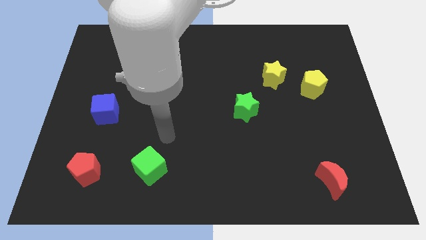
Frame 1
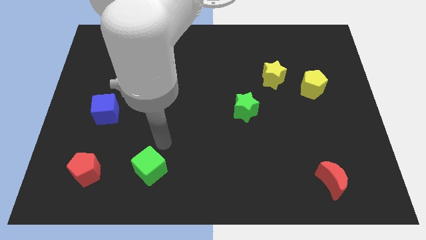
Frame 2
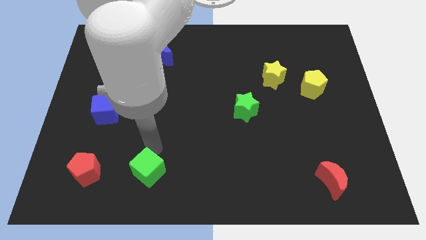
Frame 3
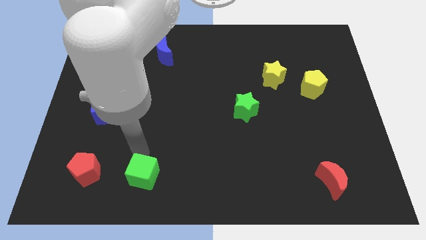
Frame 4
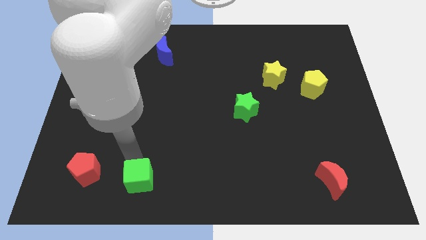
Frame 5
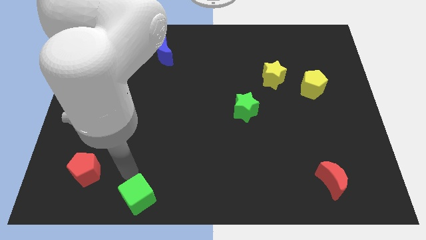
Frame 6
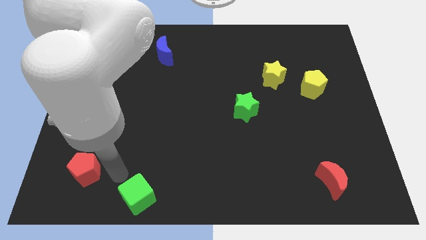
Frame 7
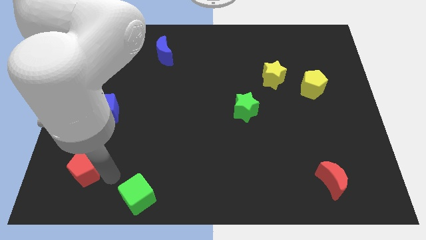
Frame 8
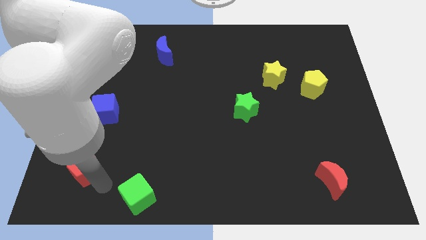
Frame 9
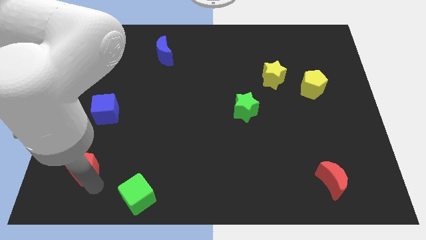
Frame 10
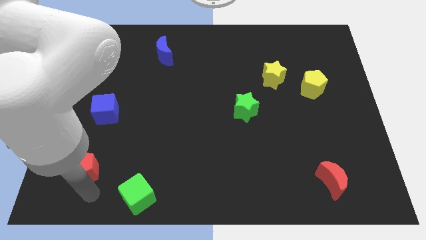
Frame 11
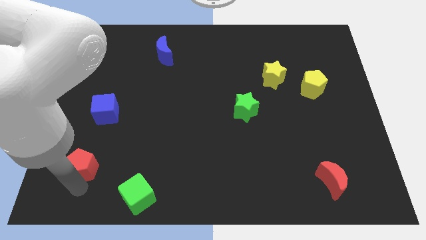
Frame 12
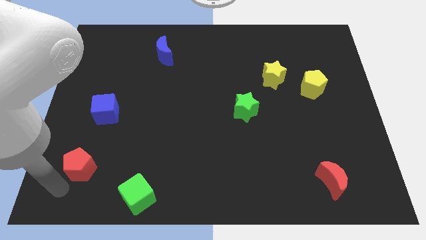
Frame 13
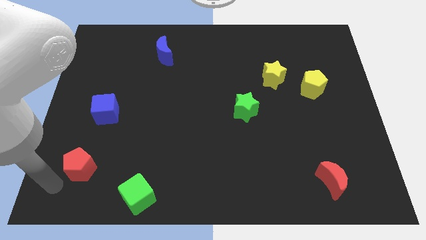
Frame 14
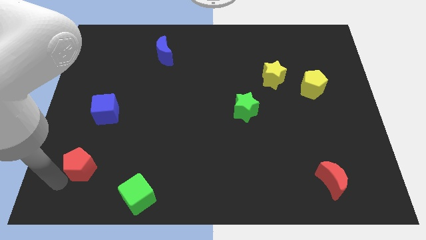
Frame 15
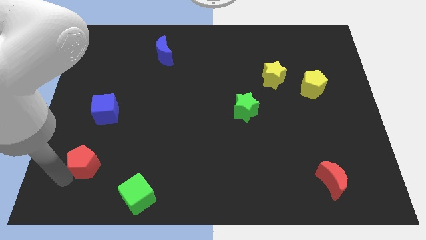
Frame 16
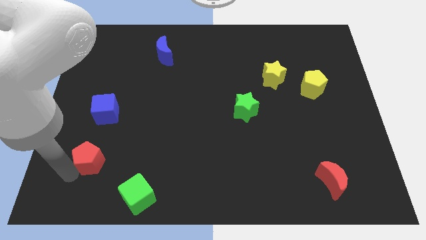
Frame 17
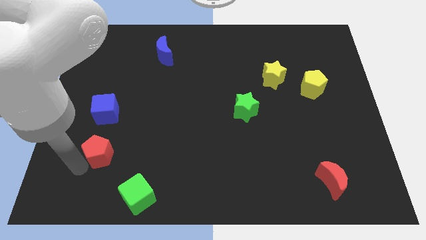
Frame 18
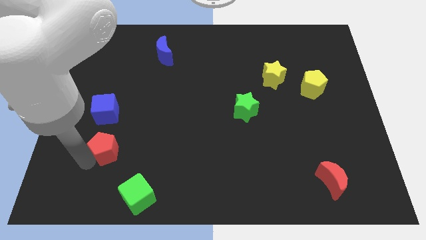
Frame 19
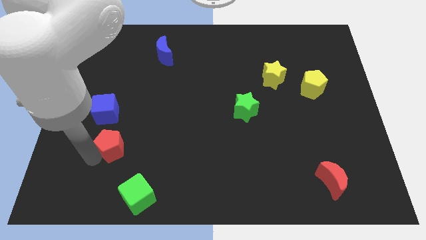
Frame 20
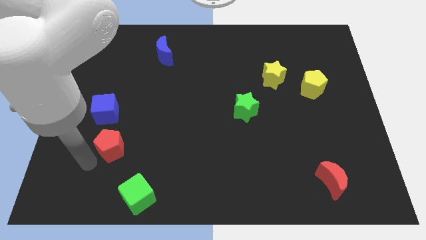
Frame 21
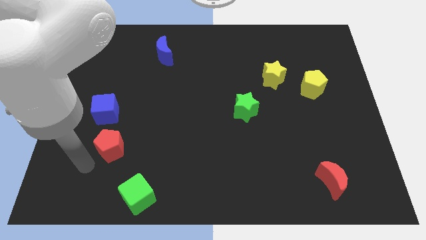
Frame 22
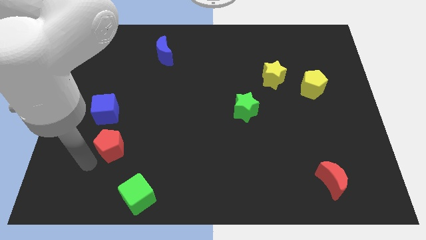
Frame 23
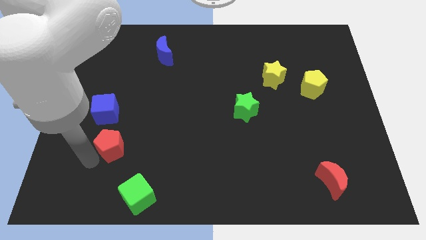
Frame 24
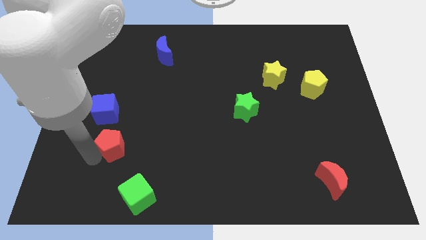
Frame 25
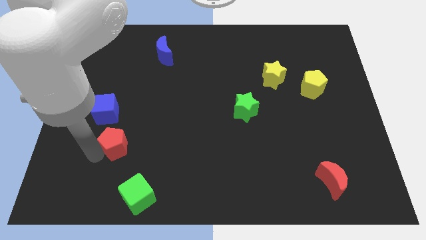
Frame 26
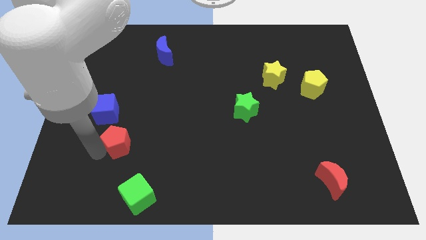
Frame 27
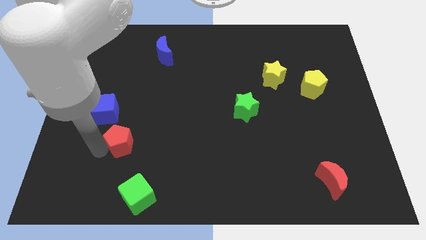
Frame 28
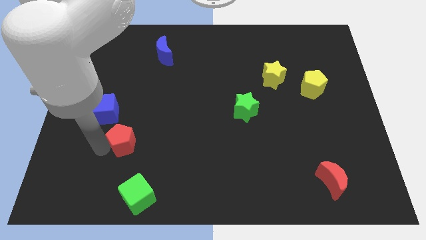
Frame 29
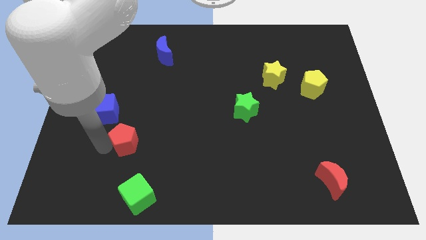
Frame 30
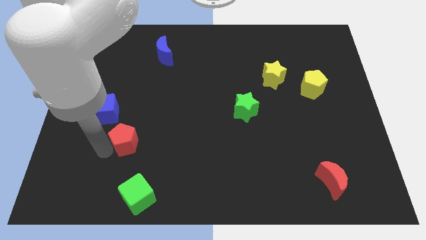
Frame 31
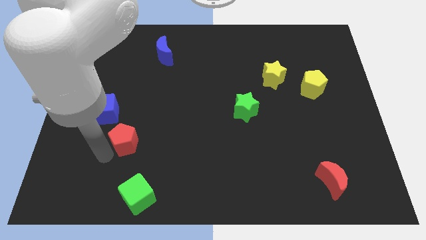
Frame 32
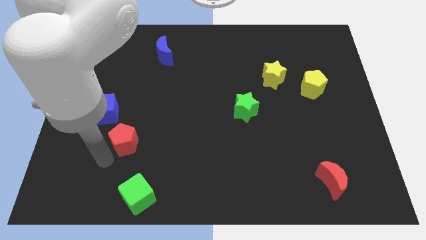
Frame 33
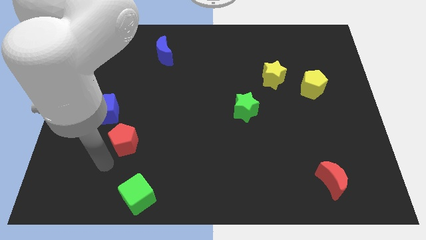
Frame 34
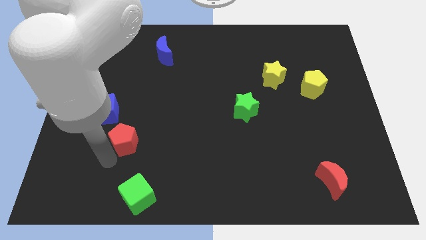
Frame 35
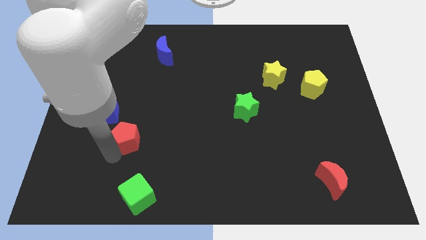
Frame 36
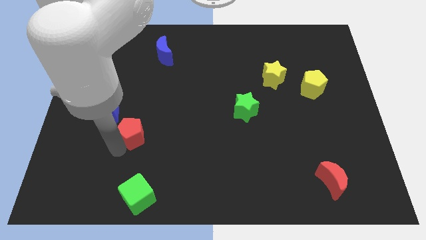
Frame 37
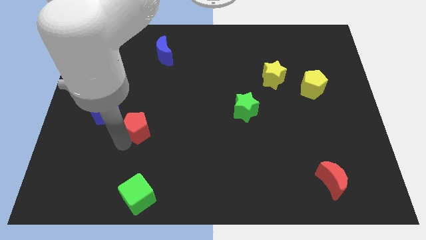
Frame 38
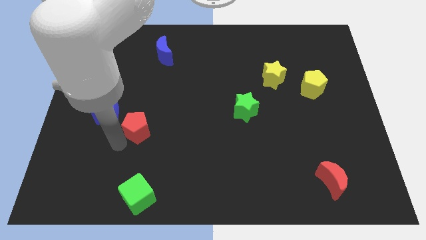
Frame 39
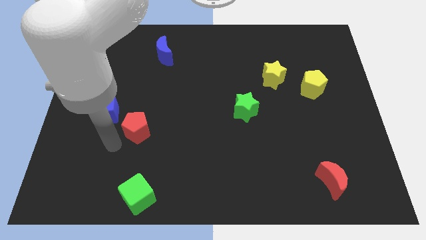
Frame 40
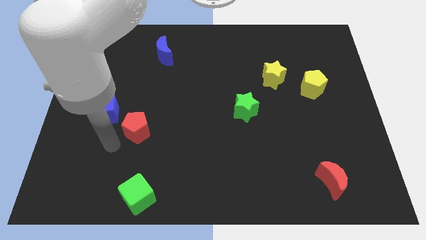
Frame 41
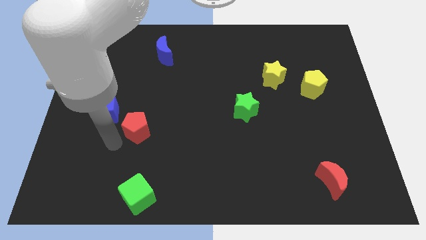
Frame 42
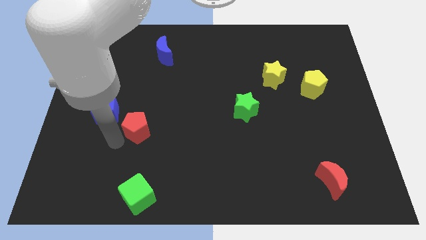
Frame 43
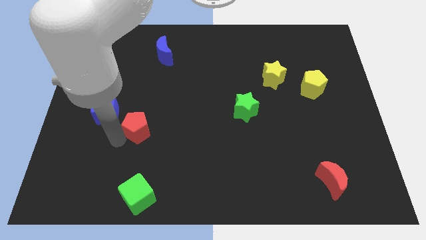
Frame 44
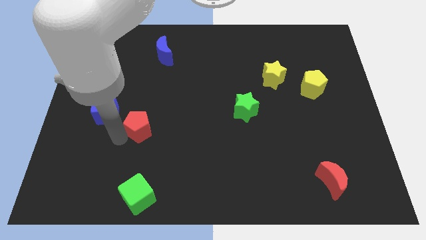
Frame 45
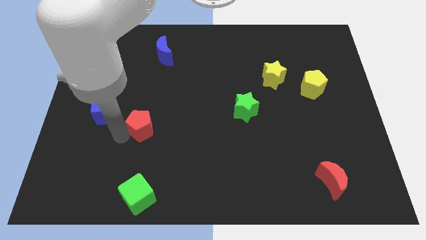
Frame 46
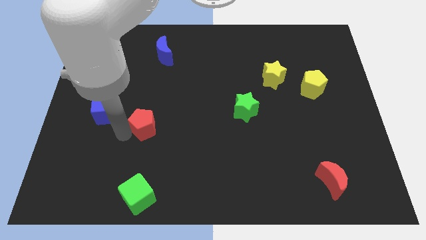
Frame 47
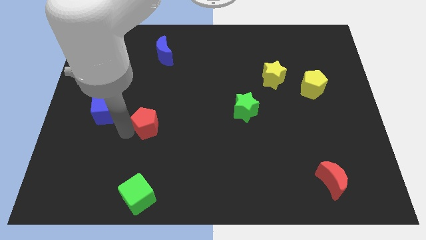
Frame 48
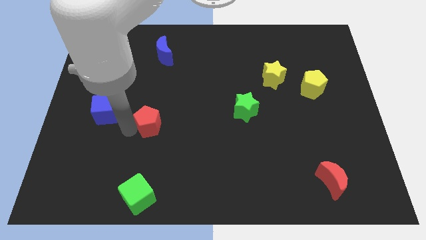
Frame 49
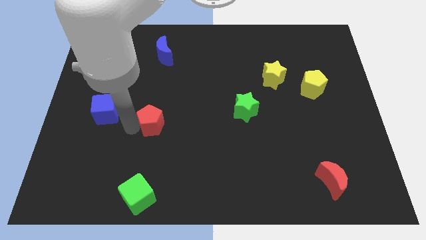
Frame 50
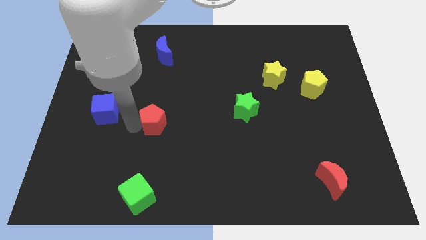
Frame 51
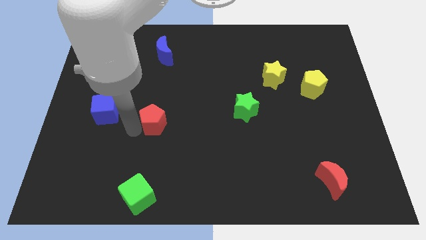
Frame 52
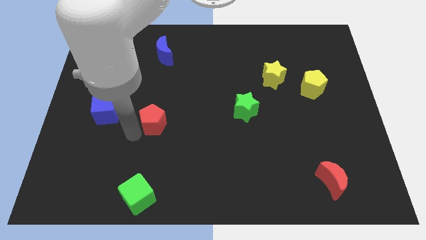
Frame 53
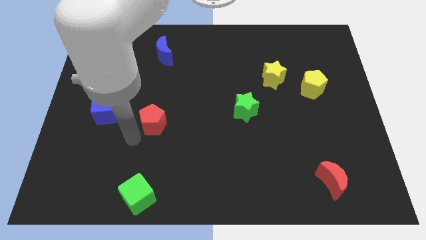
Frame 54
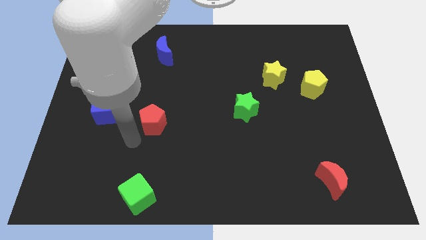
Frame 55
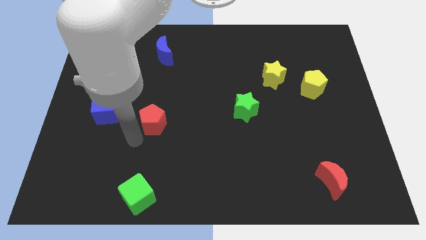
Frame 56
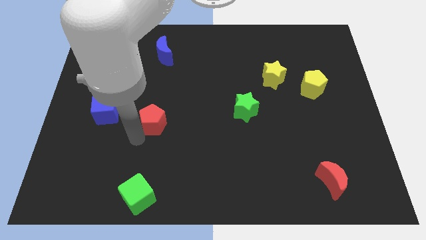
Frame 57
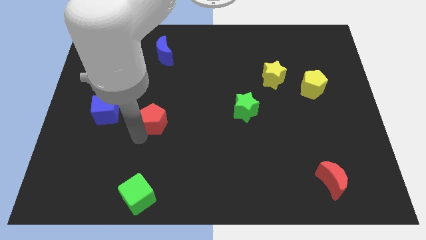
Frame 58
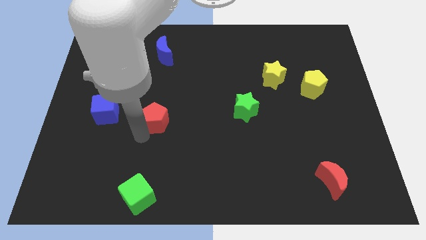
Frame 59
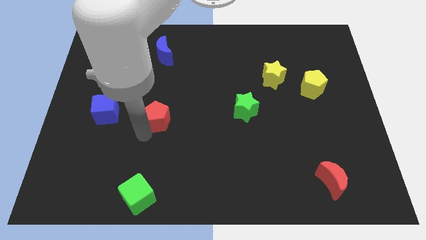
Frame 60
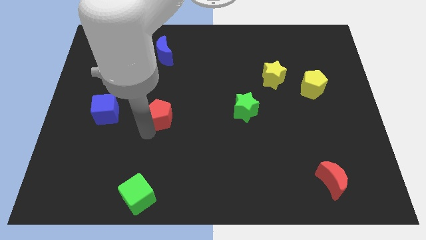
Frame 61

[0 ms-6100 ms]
push the red pentagon diagonally upwards and to the right

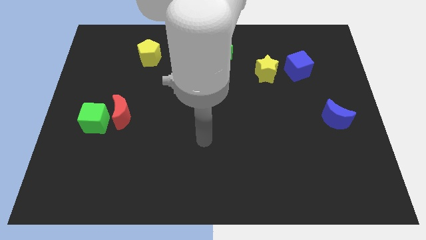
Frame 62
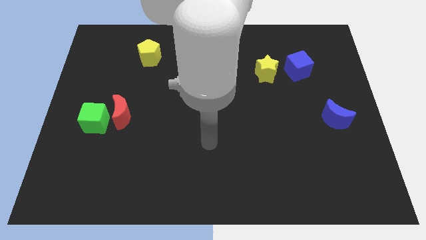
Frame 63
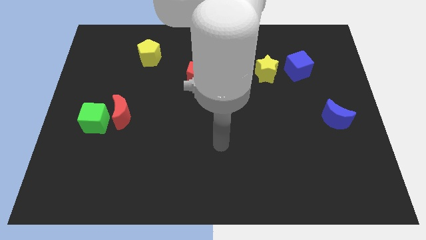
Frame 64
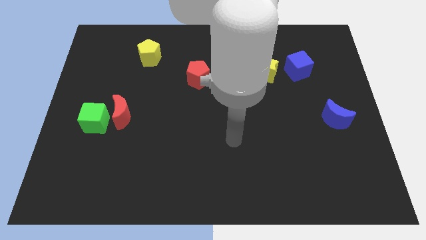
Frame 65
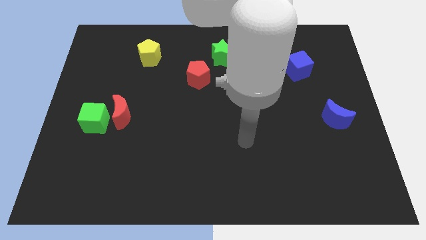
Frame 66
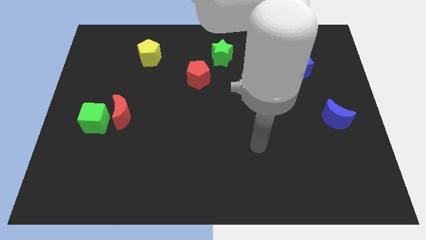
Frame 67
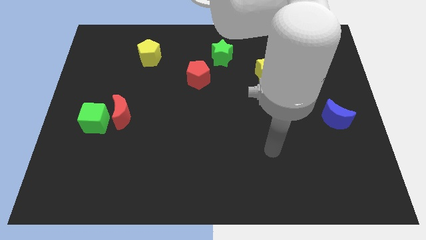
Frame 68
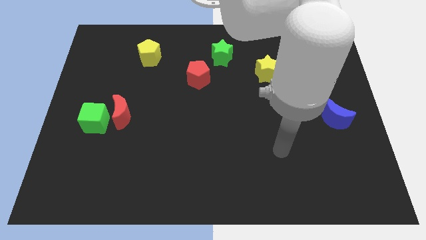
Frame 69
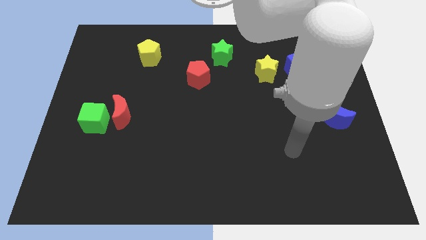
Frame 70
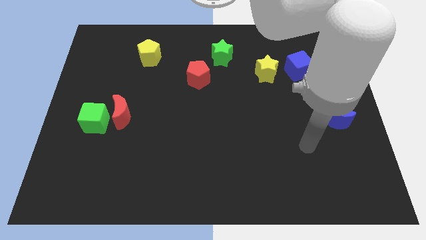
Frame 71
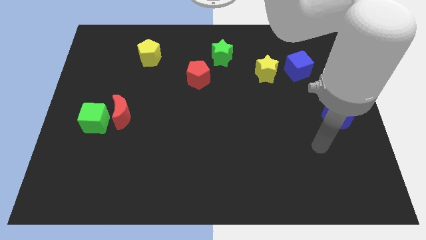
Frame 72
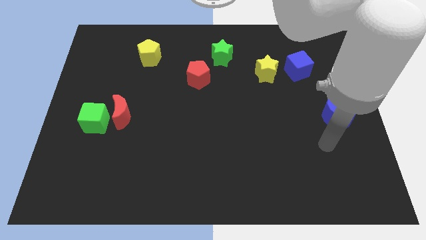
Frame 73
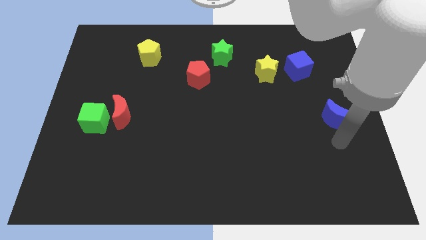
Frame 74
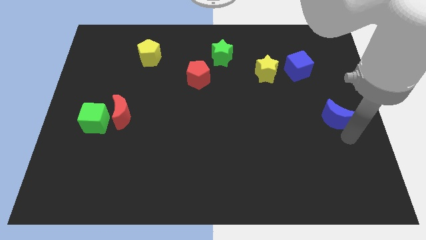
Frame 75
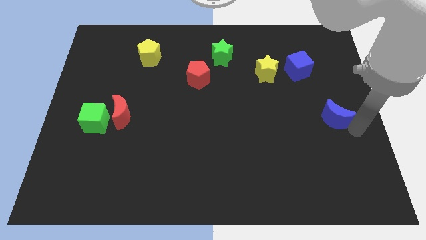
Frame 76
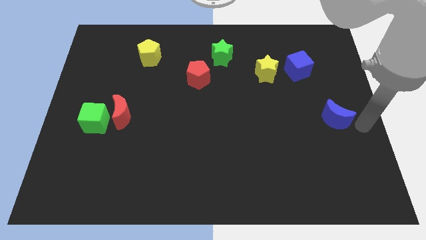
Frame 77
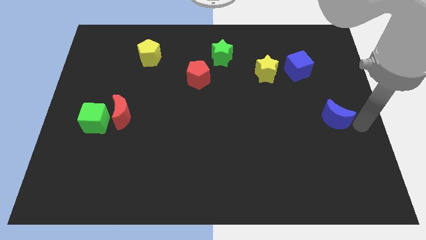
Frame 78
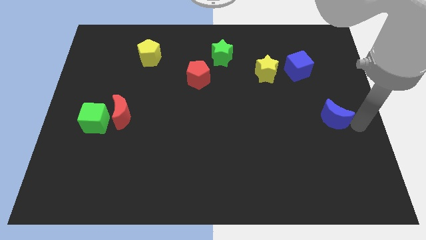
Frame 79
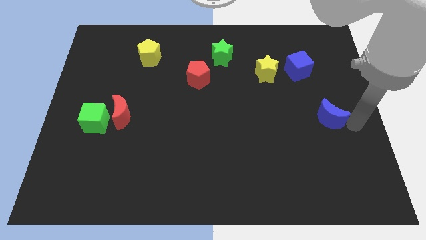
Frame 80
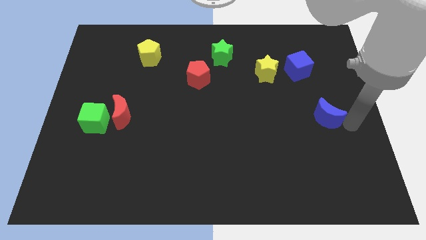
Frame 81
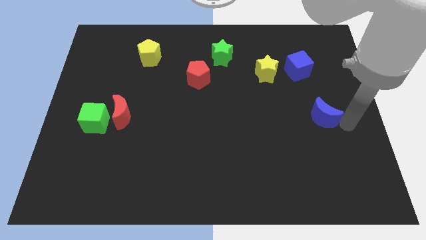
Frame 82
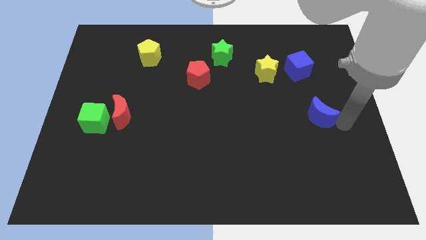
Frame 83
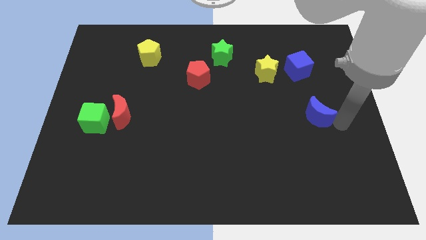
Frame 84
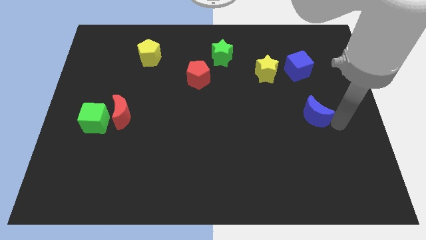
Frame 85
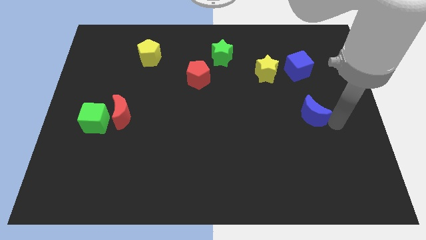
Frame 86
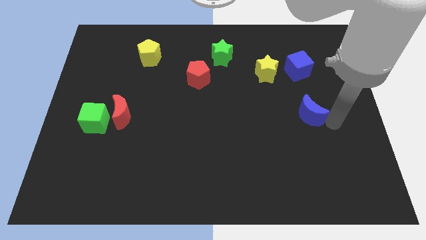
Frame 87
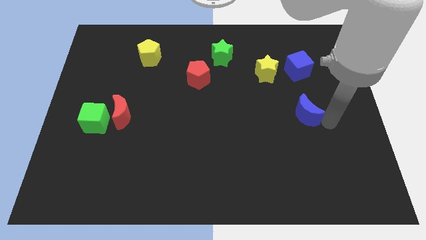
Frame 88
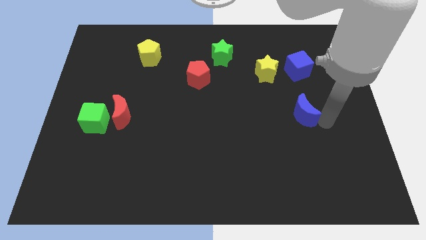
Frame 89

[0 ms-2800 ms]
slide the blue moon left a bit
